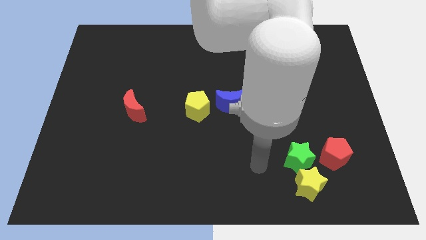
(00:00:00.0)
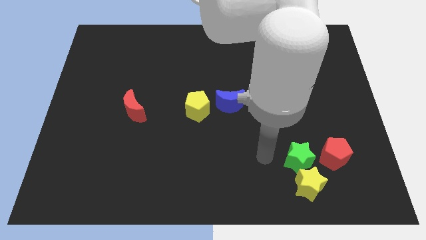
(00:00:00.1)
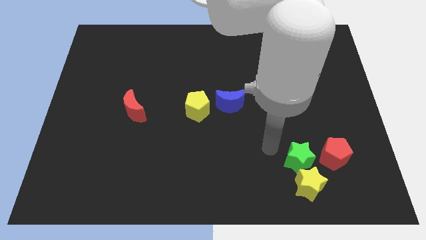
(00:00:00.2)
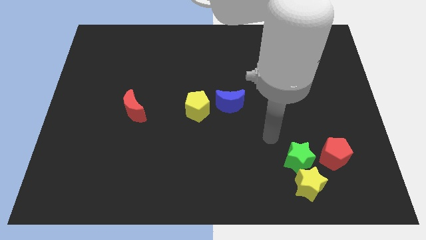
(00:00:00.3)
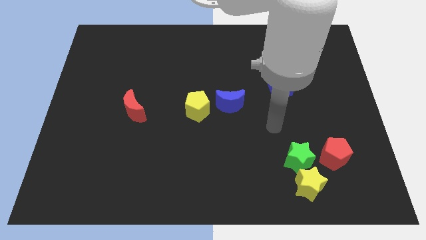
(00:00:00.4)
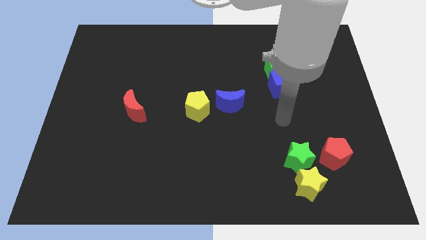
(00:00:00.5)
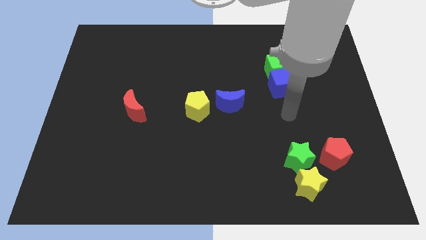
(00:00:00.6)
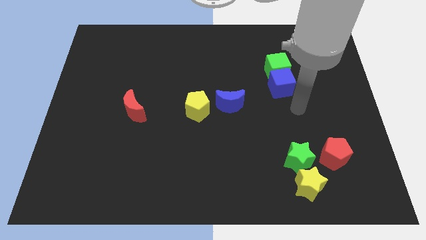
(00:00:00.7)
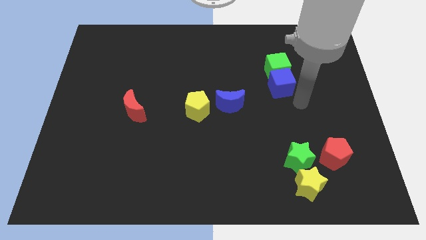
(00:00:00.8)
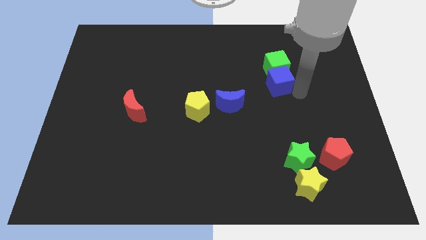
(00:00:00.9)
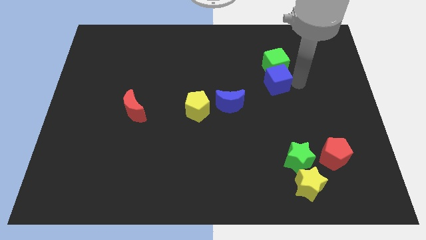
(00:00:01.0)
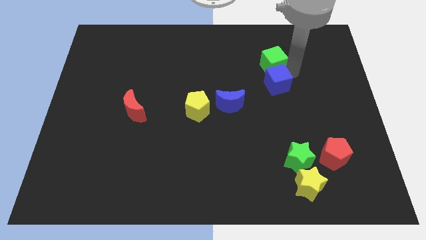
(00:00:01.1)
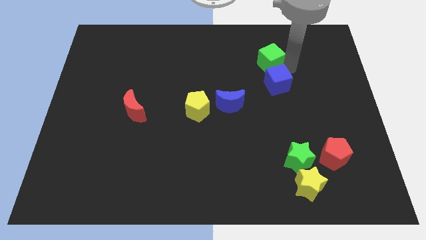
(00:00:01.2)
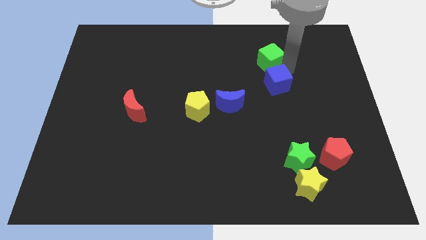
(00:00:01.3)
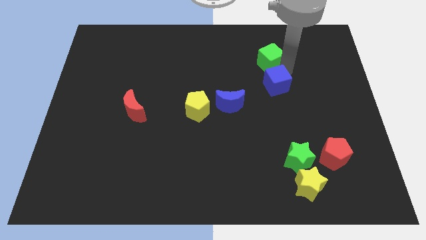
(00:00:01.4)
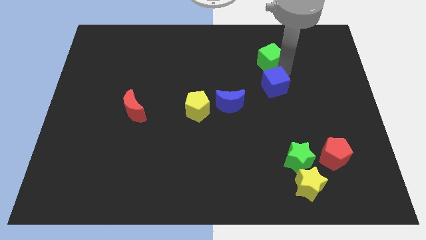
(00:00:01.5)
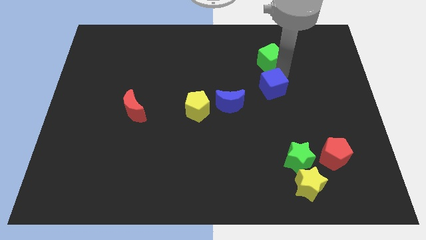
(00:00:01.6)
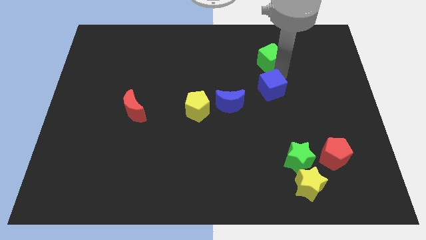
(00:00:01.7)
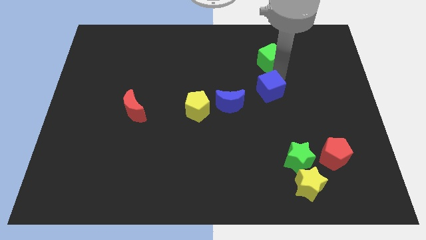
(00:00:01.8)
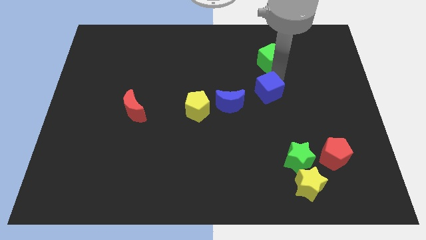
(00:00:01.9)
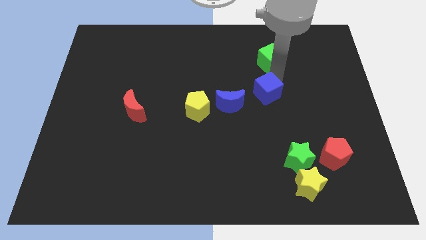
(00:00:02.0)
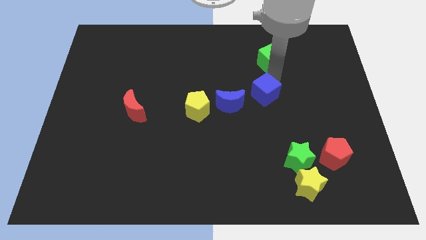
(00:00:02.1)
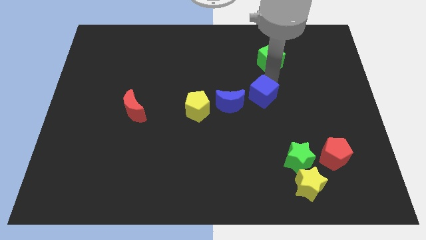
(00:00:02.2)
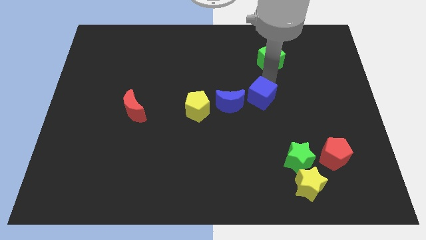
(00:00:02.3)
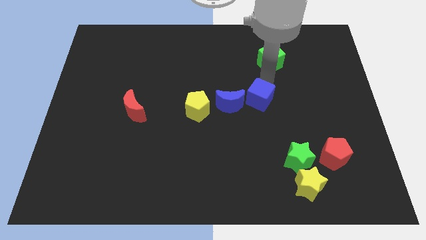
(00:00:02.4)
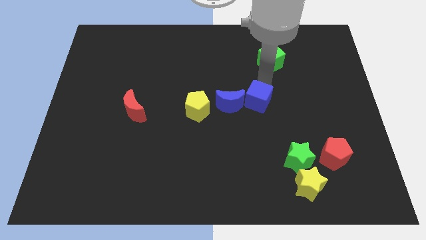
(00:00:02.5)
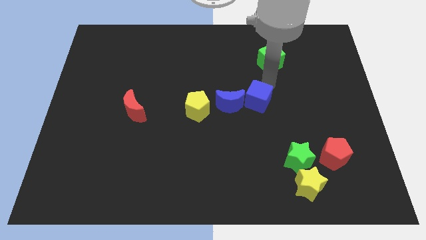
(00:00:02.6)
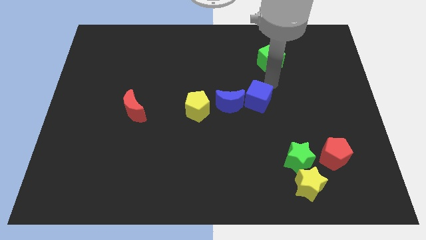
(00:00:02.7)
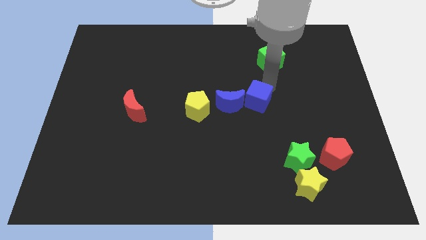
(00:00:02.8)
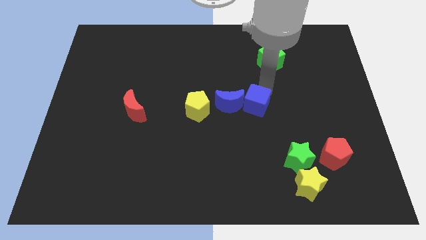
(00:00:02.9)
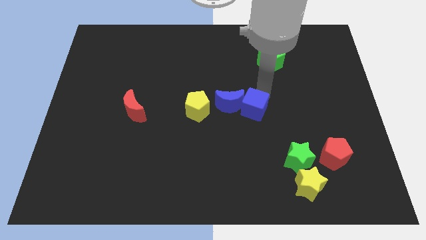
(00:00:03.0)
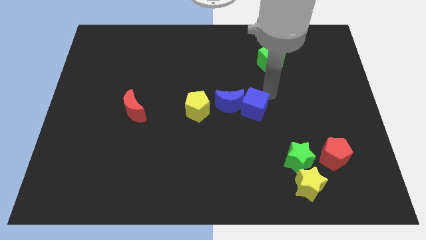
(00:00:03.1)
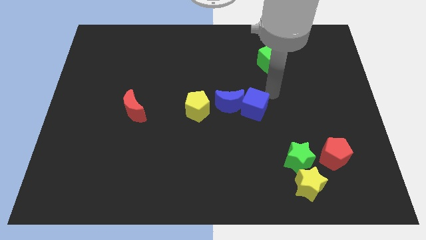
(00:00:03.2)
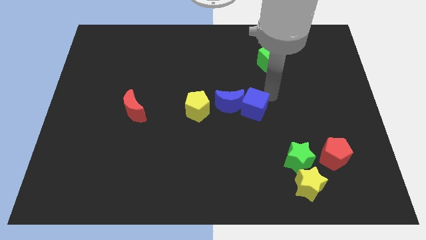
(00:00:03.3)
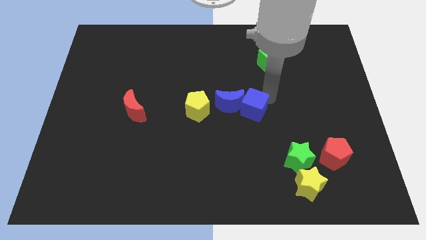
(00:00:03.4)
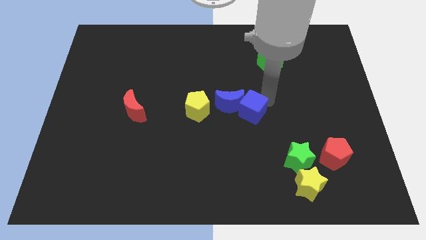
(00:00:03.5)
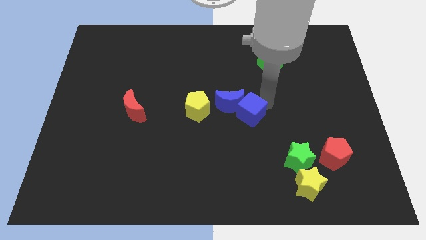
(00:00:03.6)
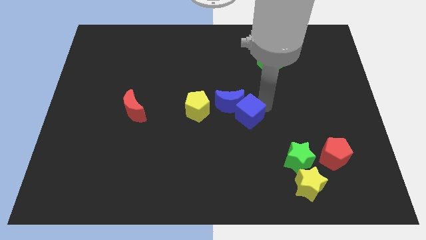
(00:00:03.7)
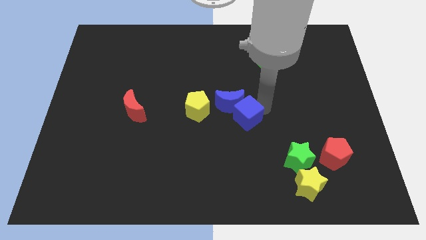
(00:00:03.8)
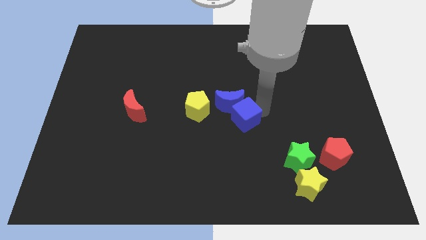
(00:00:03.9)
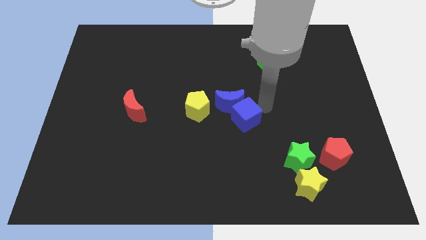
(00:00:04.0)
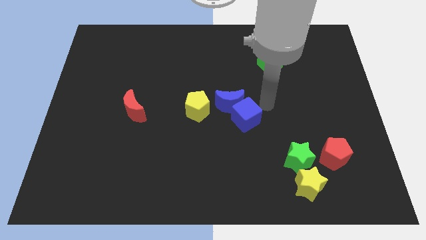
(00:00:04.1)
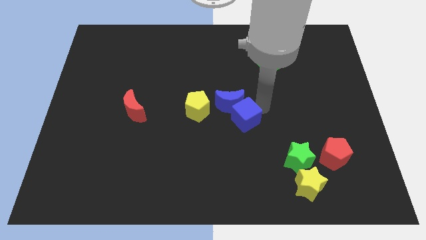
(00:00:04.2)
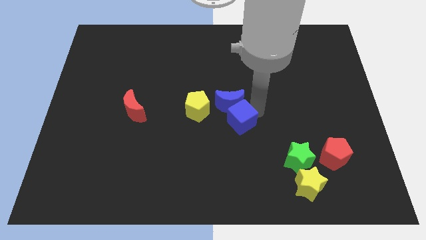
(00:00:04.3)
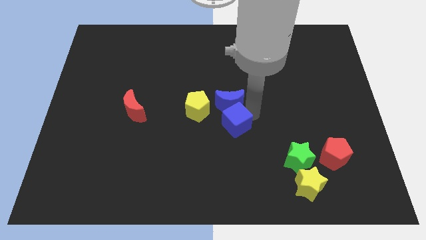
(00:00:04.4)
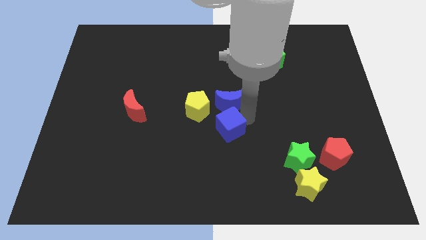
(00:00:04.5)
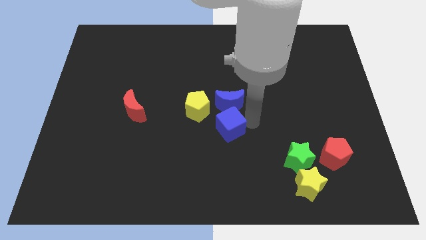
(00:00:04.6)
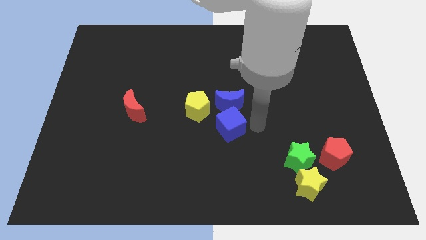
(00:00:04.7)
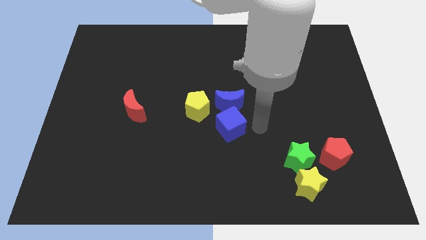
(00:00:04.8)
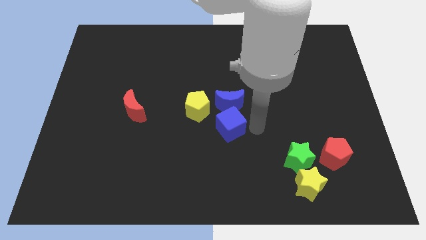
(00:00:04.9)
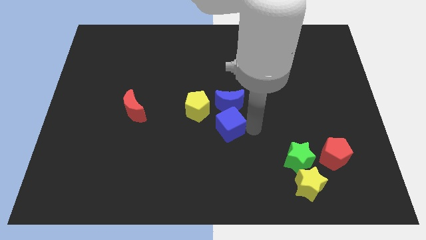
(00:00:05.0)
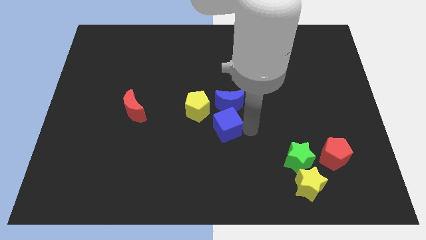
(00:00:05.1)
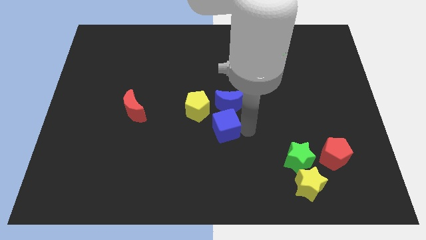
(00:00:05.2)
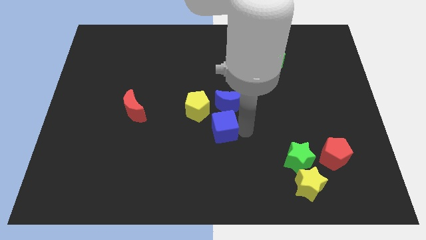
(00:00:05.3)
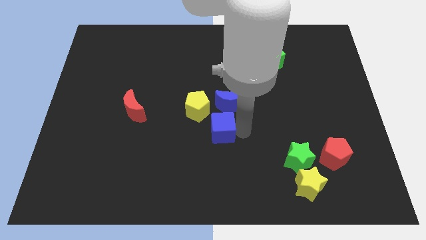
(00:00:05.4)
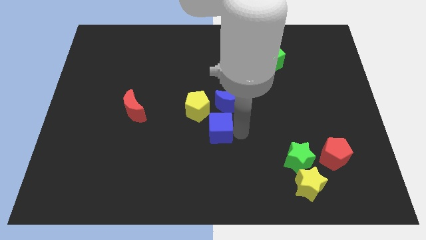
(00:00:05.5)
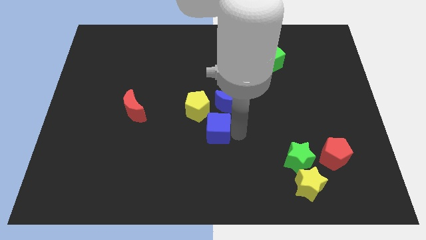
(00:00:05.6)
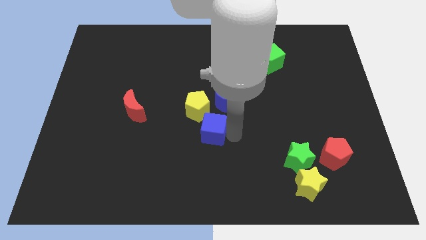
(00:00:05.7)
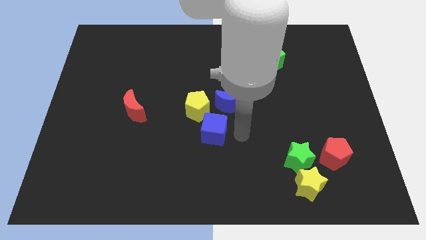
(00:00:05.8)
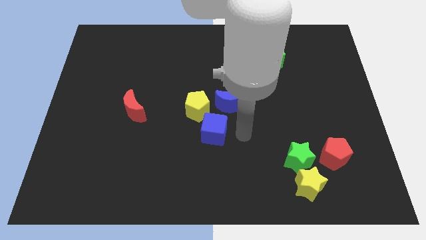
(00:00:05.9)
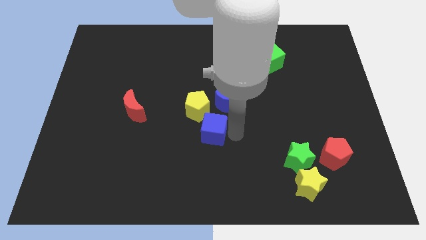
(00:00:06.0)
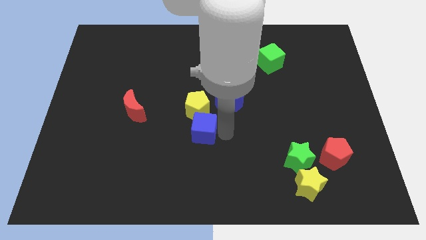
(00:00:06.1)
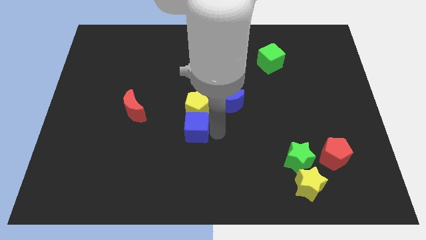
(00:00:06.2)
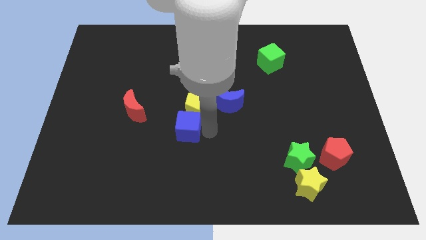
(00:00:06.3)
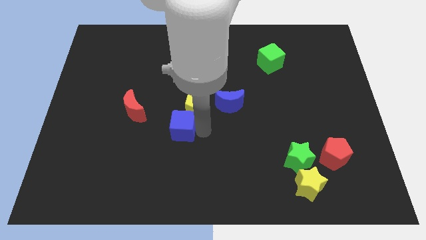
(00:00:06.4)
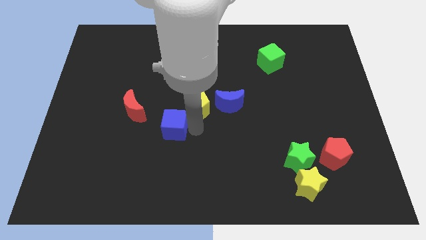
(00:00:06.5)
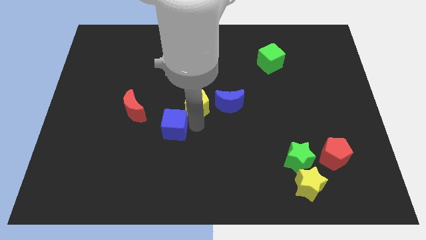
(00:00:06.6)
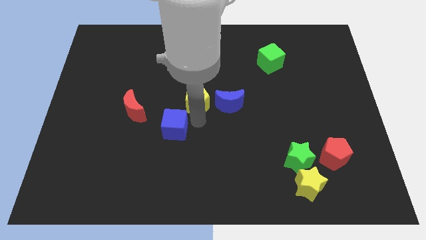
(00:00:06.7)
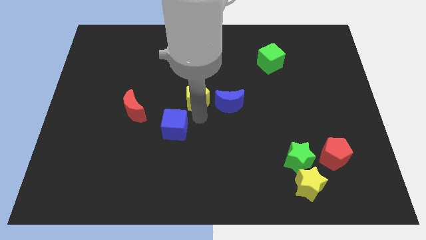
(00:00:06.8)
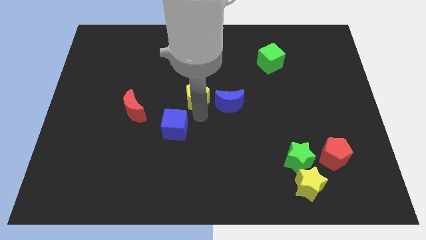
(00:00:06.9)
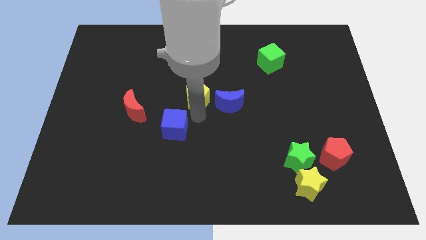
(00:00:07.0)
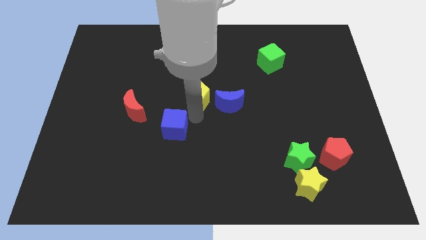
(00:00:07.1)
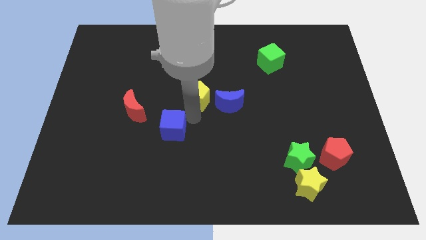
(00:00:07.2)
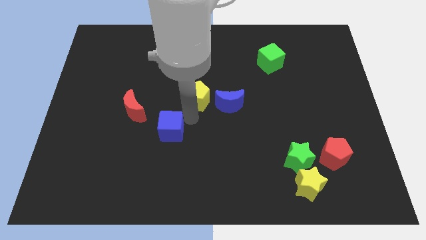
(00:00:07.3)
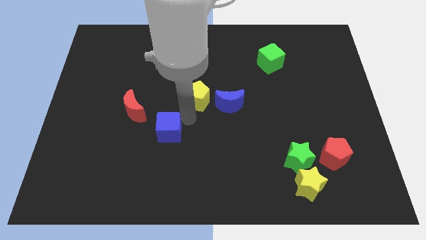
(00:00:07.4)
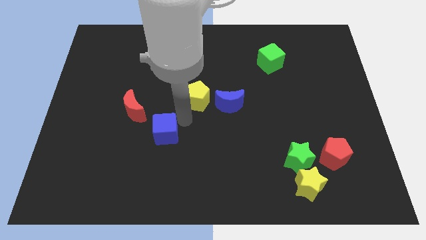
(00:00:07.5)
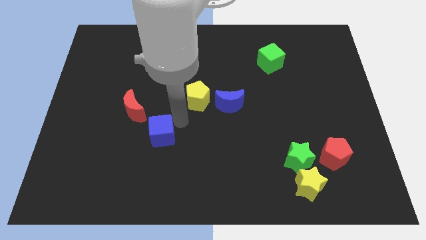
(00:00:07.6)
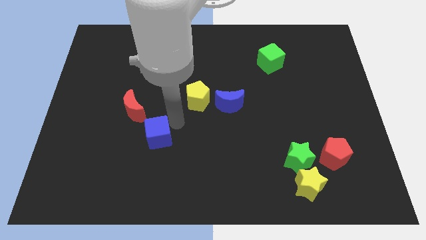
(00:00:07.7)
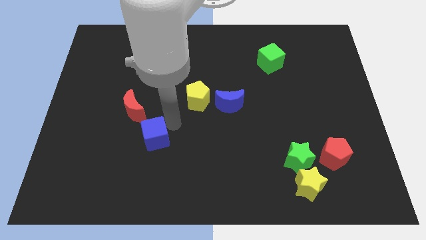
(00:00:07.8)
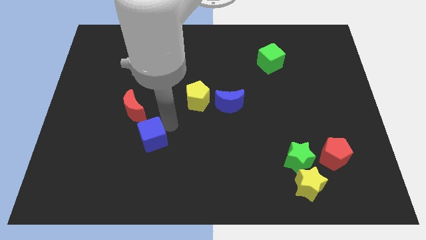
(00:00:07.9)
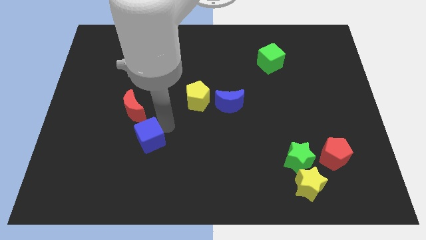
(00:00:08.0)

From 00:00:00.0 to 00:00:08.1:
slide the blue cube to the bottom side of the red moon
